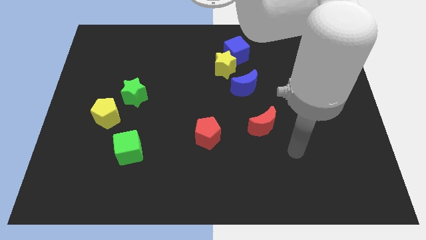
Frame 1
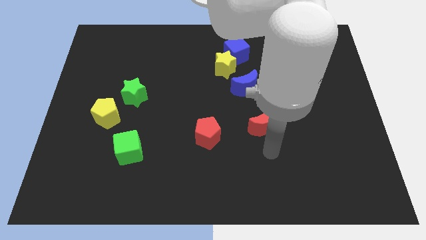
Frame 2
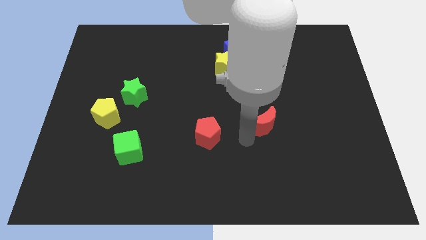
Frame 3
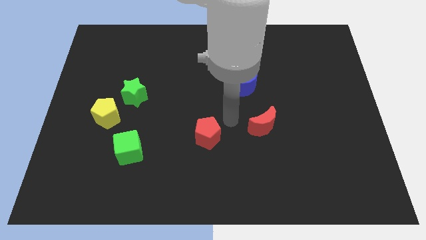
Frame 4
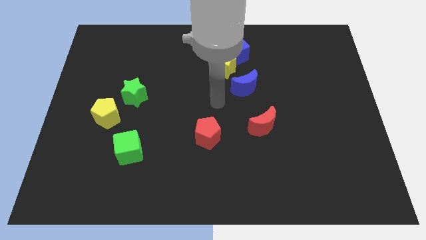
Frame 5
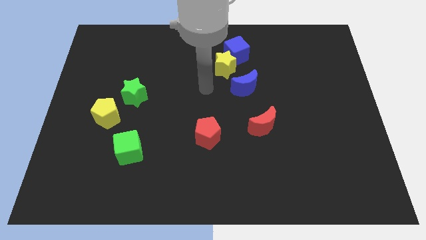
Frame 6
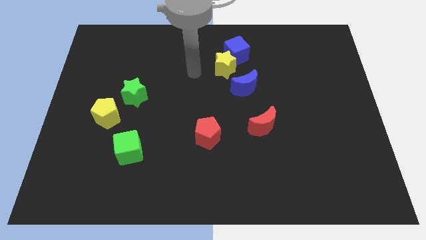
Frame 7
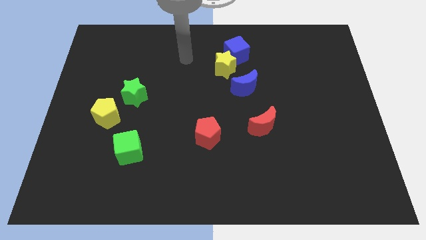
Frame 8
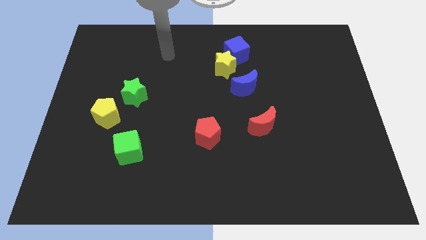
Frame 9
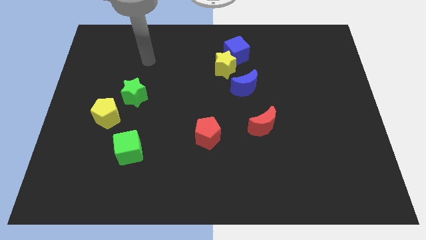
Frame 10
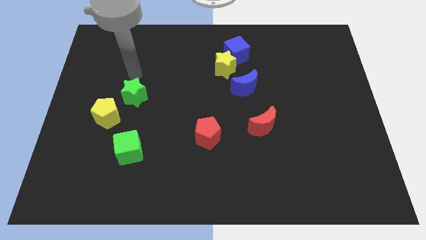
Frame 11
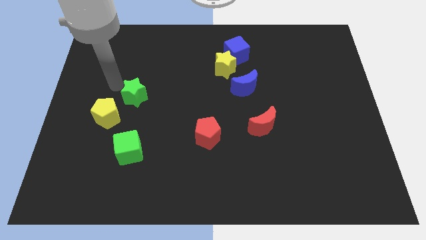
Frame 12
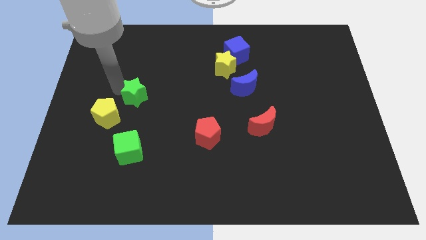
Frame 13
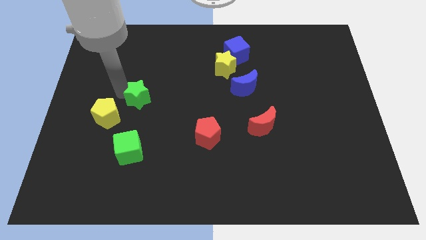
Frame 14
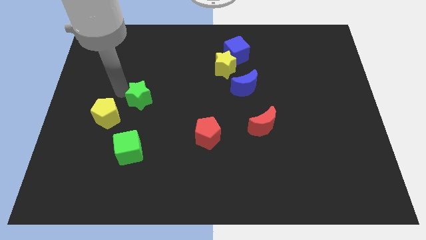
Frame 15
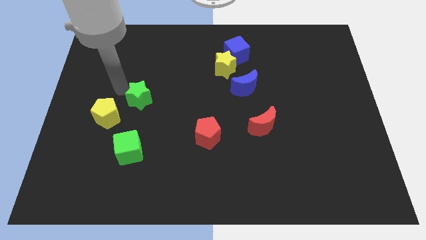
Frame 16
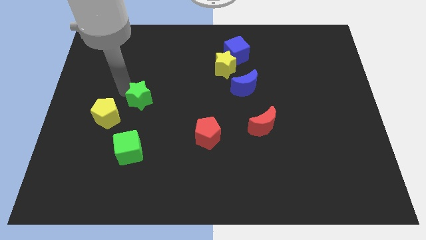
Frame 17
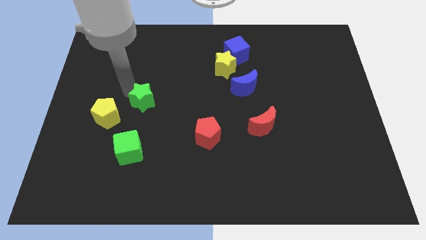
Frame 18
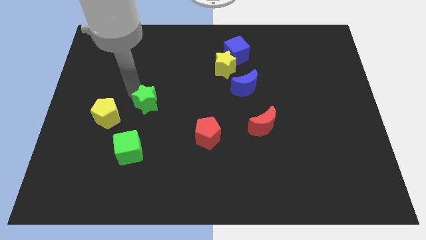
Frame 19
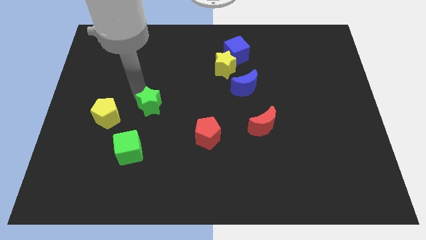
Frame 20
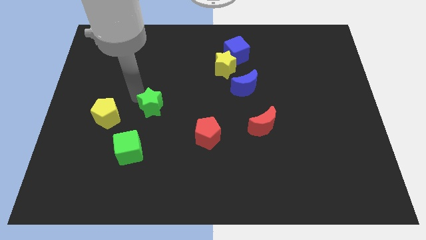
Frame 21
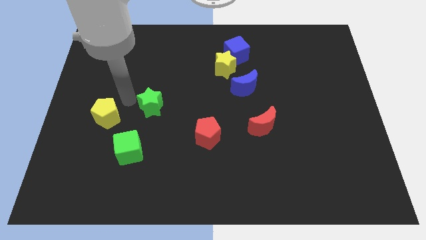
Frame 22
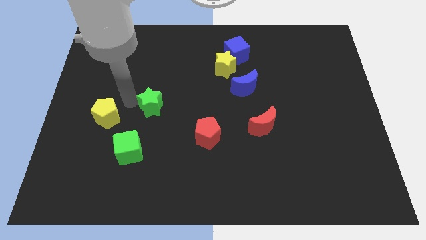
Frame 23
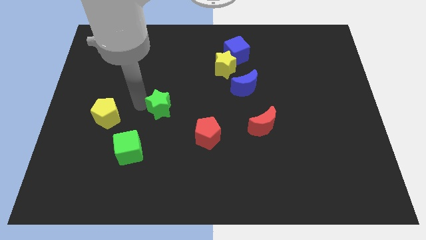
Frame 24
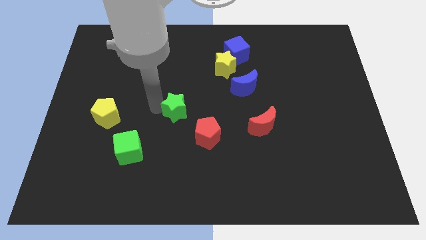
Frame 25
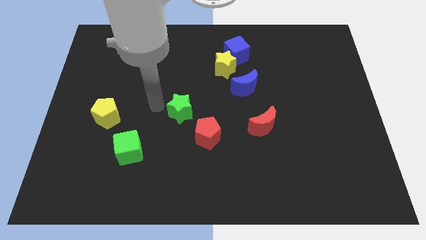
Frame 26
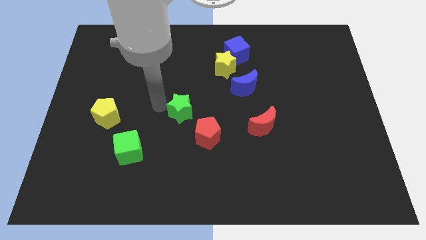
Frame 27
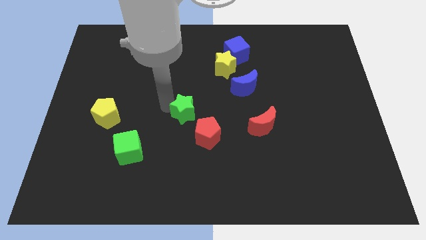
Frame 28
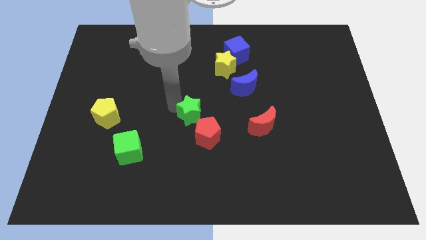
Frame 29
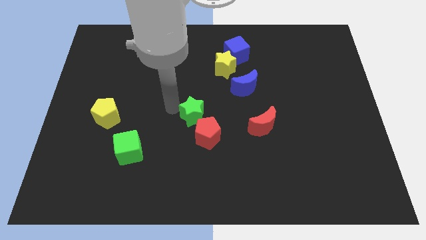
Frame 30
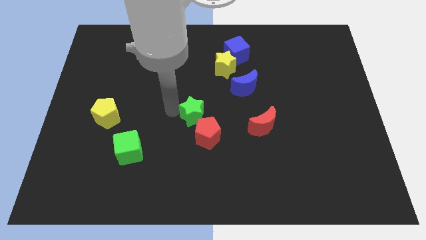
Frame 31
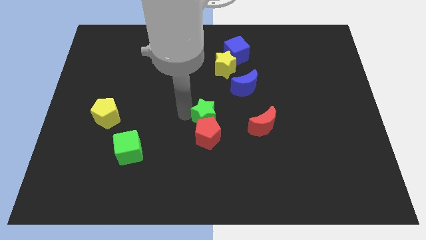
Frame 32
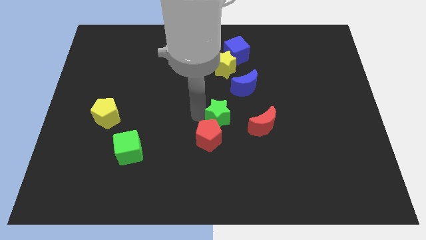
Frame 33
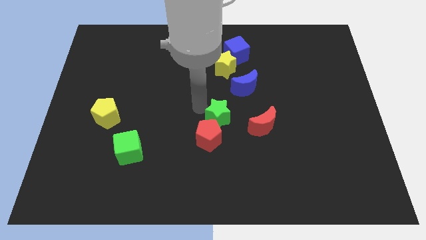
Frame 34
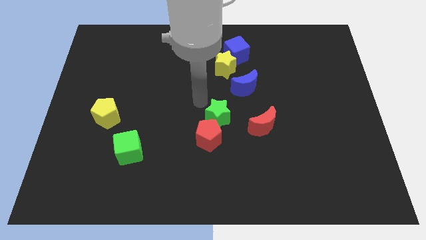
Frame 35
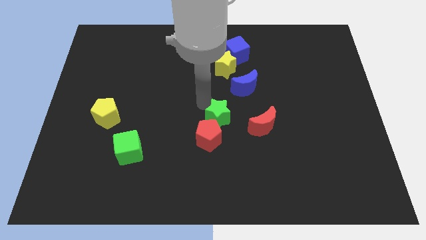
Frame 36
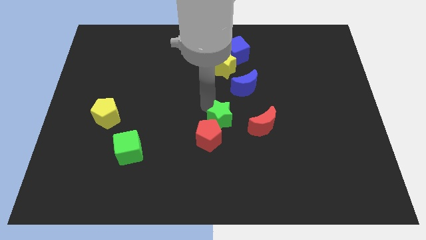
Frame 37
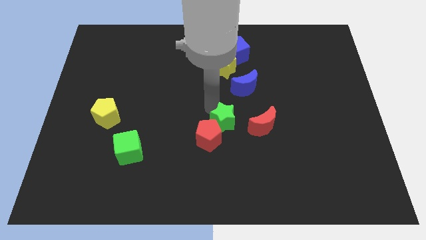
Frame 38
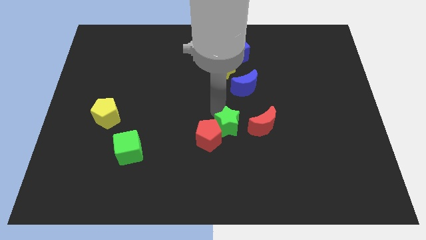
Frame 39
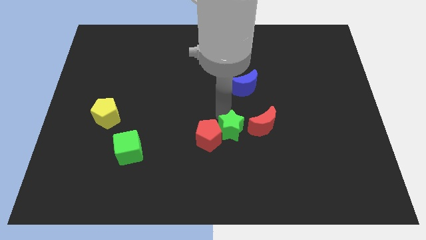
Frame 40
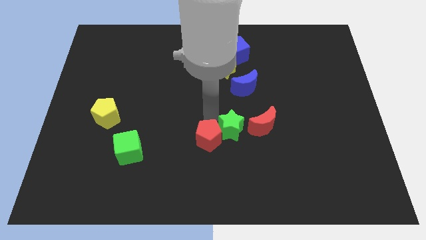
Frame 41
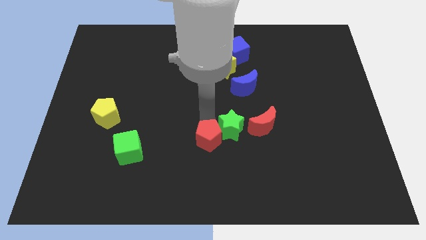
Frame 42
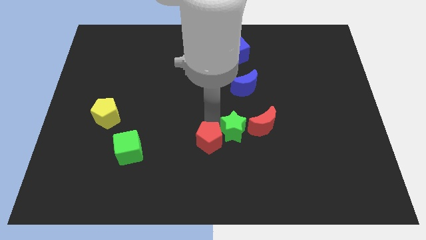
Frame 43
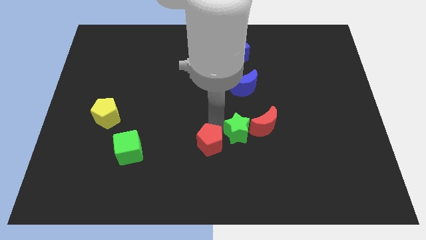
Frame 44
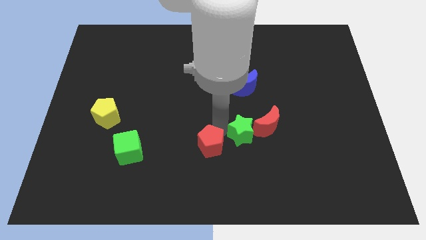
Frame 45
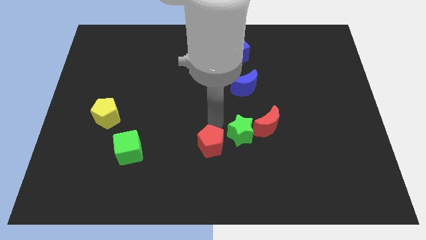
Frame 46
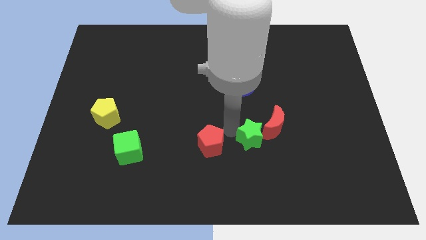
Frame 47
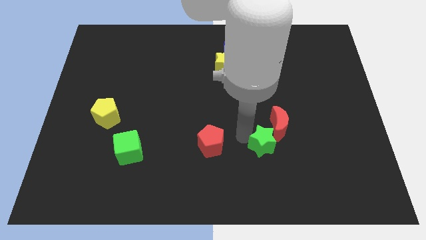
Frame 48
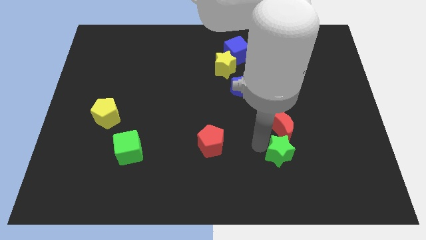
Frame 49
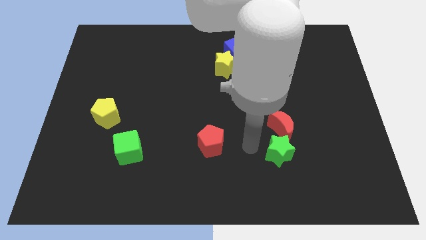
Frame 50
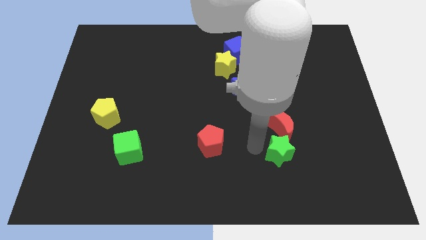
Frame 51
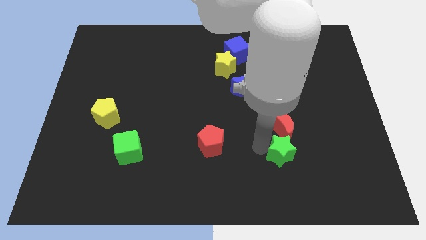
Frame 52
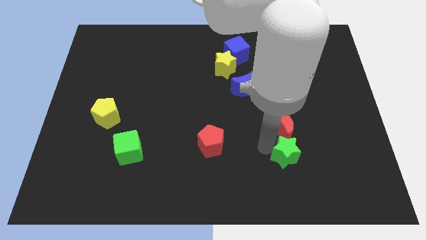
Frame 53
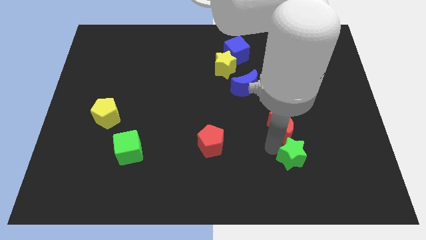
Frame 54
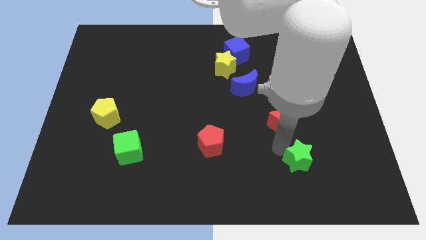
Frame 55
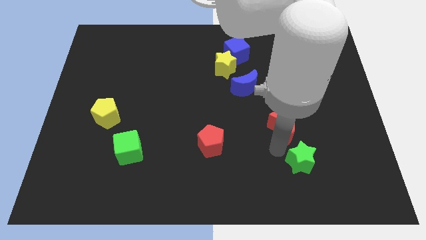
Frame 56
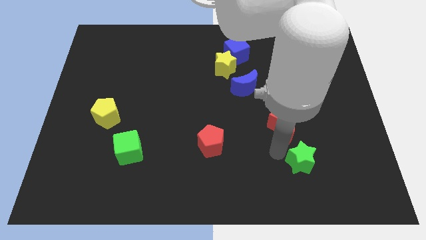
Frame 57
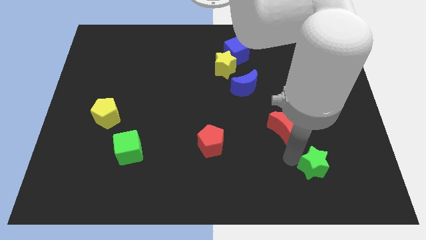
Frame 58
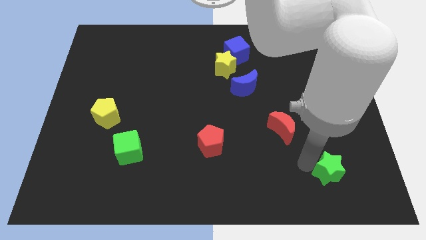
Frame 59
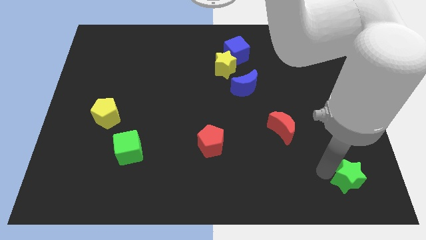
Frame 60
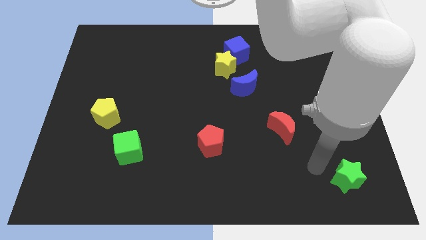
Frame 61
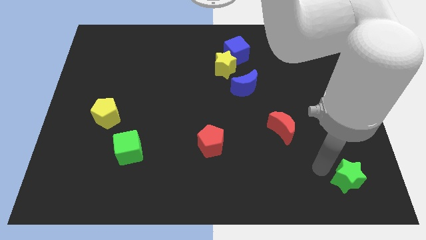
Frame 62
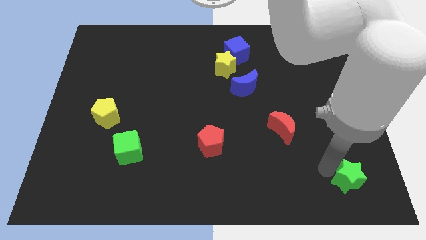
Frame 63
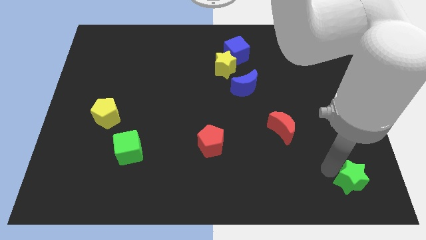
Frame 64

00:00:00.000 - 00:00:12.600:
put the green star to the bottom right of the board

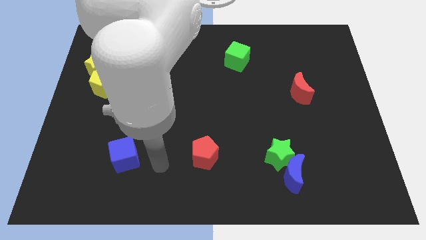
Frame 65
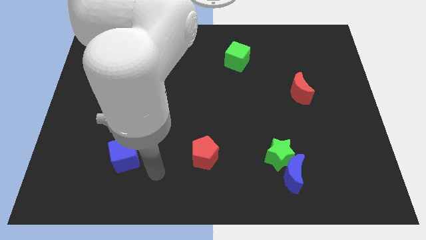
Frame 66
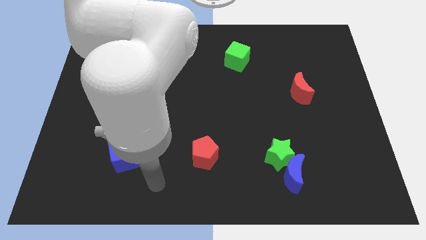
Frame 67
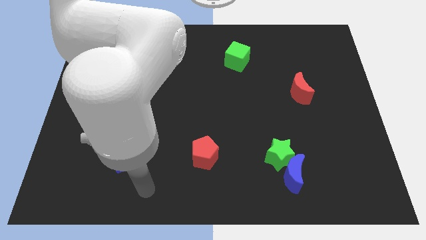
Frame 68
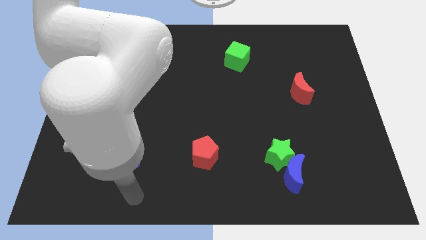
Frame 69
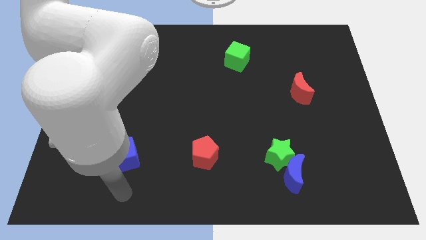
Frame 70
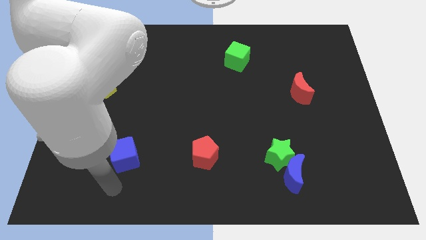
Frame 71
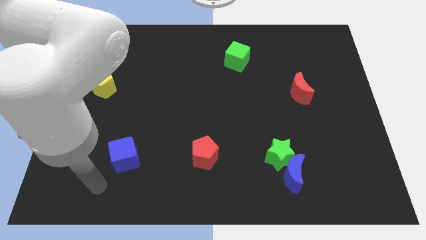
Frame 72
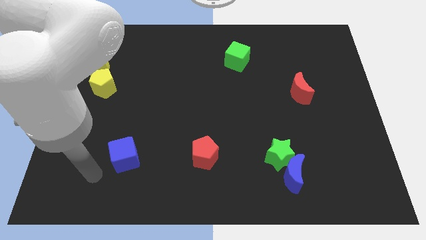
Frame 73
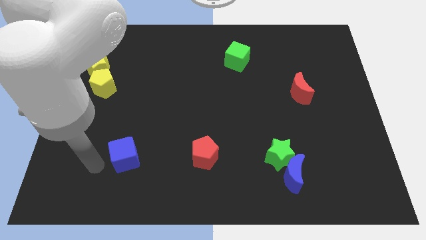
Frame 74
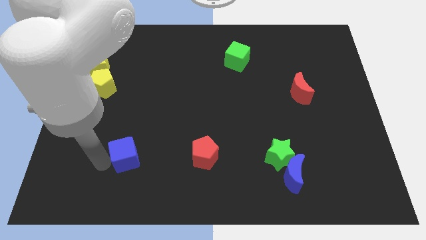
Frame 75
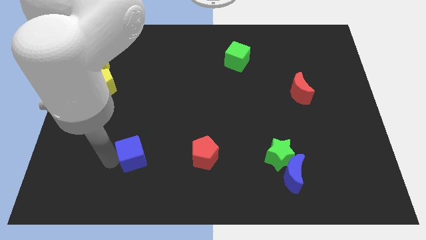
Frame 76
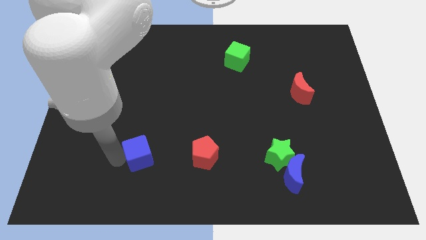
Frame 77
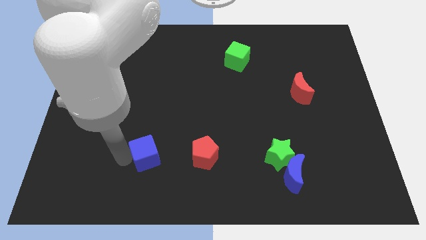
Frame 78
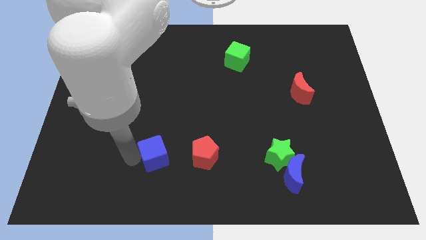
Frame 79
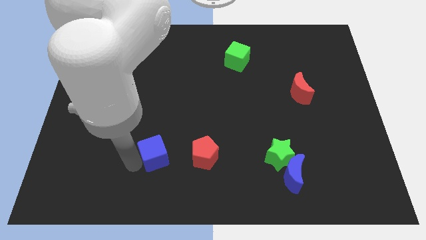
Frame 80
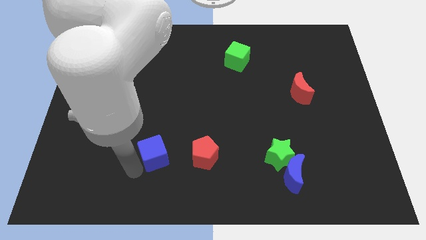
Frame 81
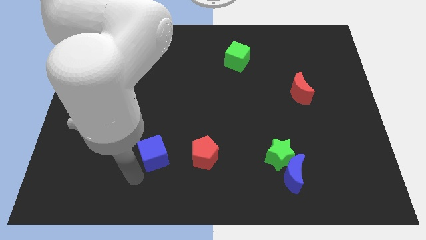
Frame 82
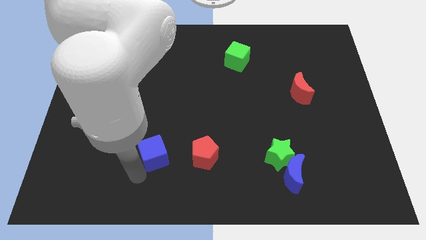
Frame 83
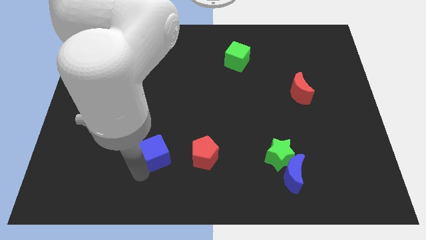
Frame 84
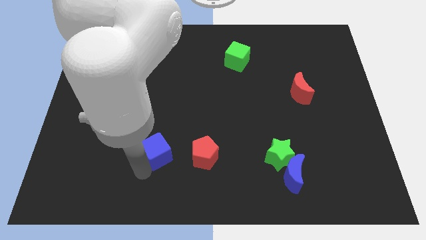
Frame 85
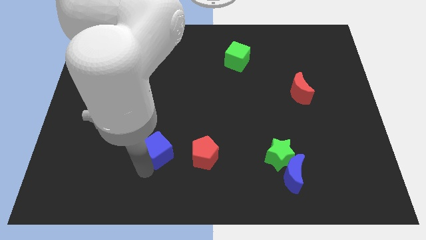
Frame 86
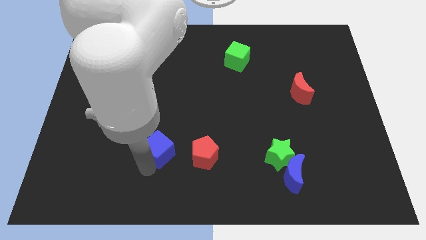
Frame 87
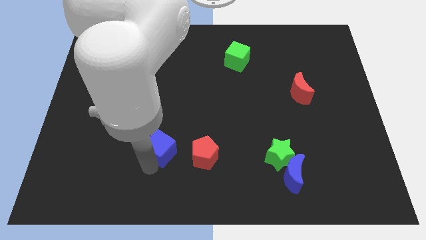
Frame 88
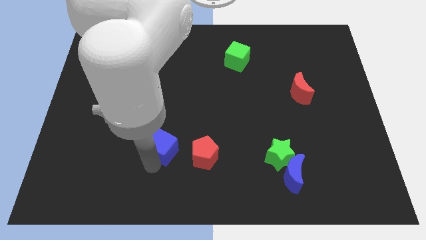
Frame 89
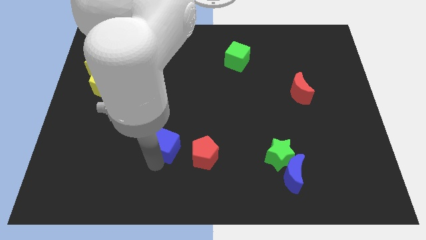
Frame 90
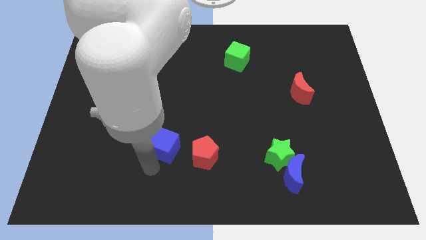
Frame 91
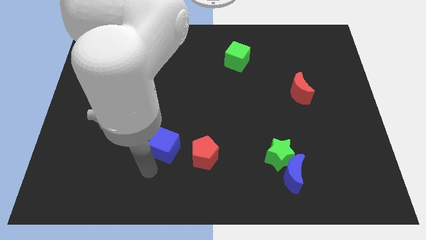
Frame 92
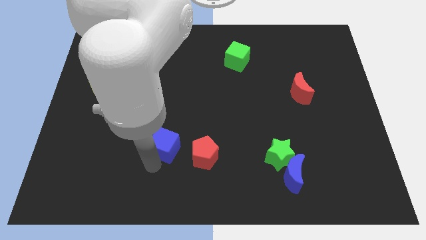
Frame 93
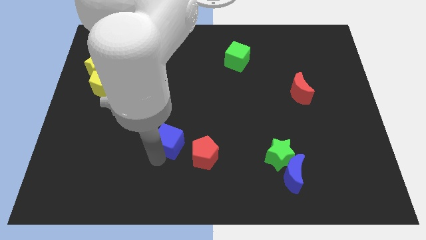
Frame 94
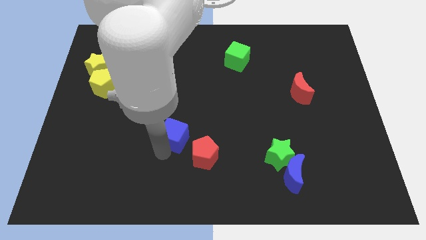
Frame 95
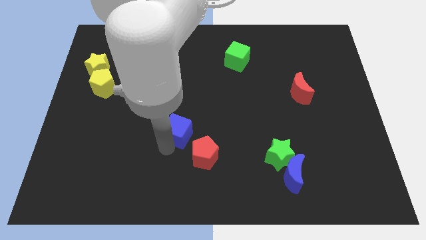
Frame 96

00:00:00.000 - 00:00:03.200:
slide the blue cube to the center of the board
